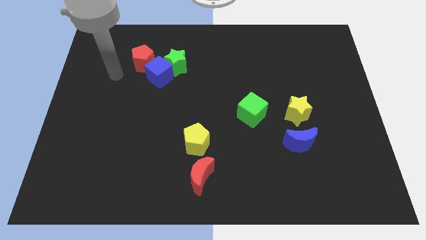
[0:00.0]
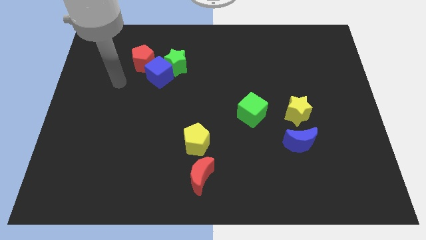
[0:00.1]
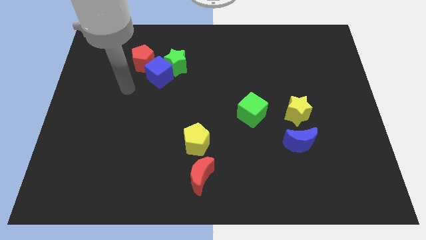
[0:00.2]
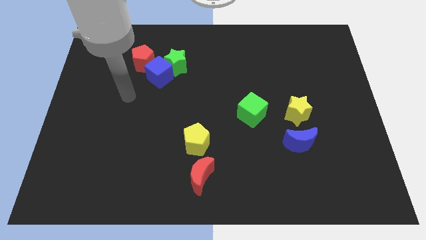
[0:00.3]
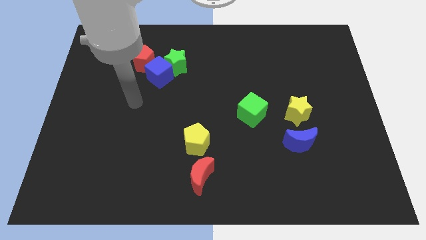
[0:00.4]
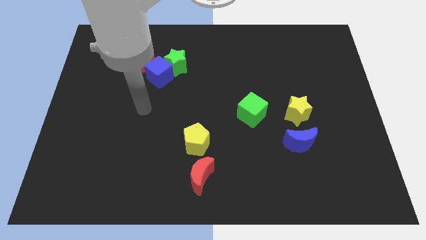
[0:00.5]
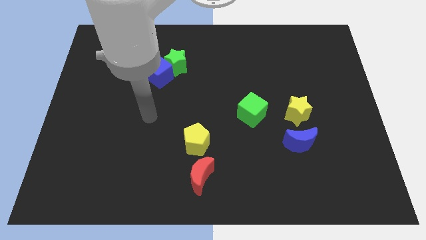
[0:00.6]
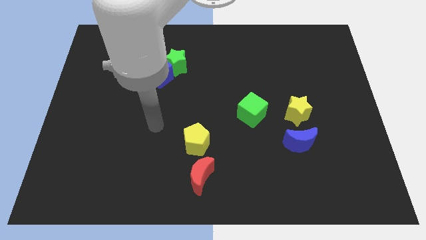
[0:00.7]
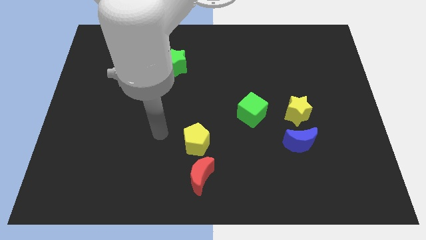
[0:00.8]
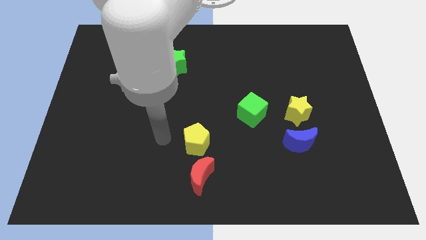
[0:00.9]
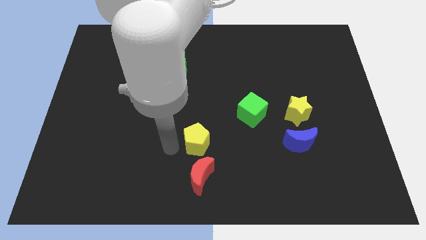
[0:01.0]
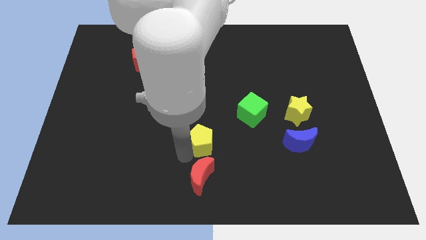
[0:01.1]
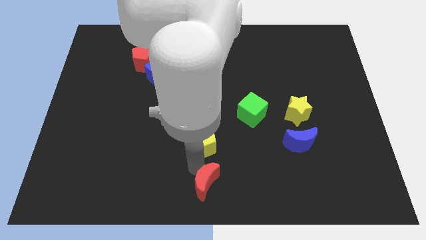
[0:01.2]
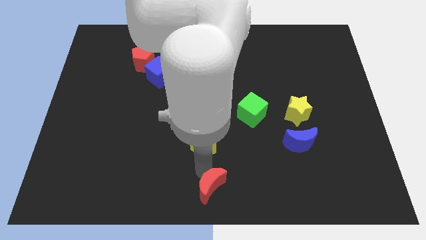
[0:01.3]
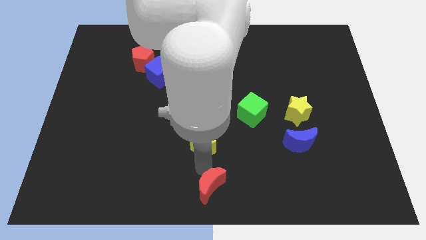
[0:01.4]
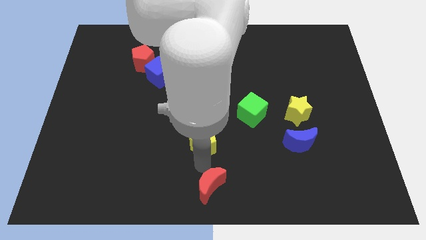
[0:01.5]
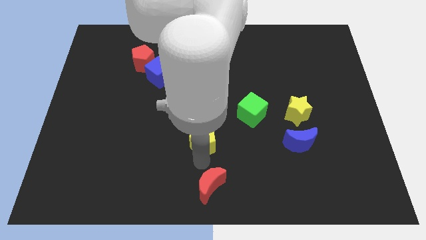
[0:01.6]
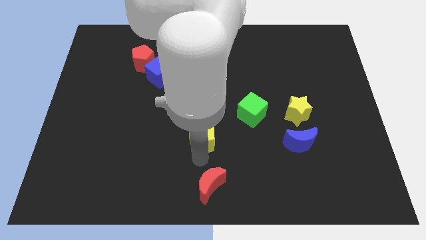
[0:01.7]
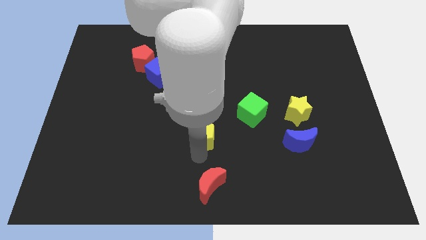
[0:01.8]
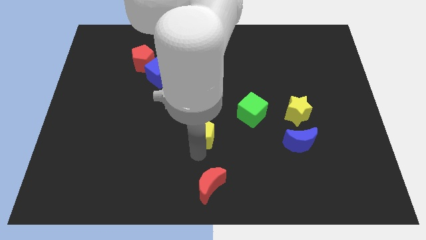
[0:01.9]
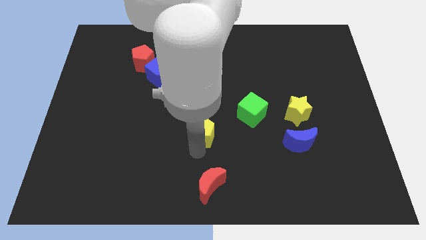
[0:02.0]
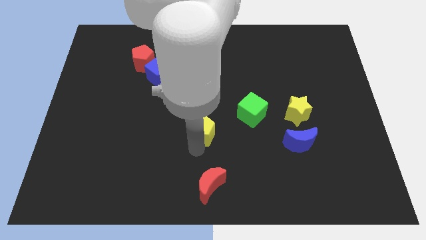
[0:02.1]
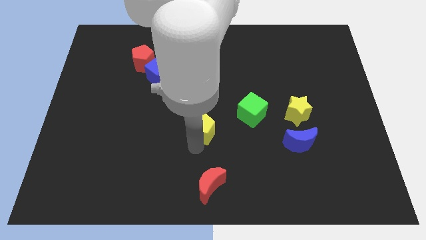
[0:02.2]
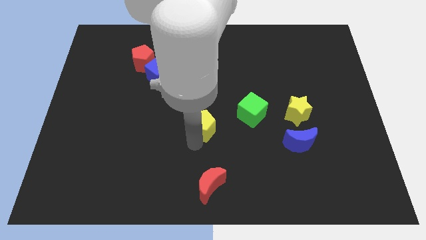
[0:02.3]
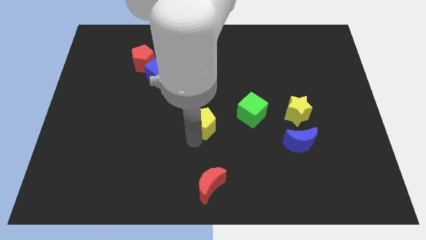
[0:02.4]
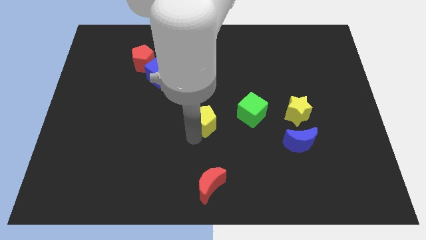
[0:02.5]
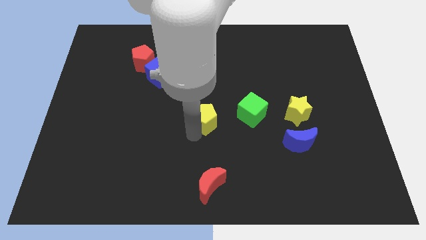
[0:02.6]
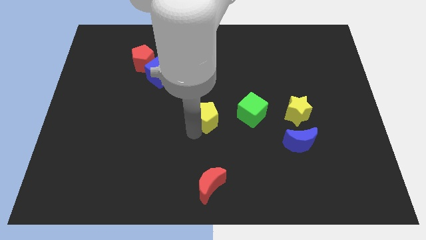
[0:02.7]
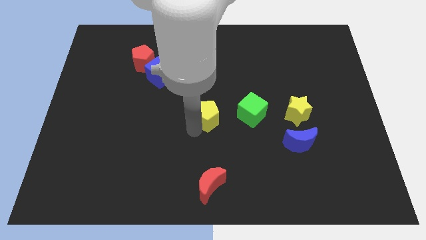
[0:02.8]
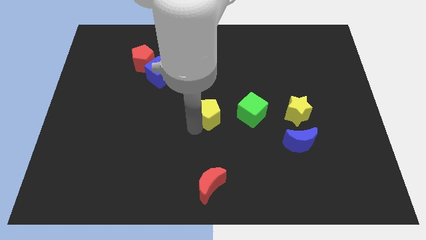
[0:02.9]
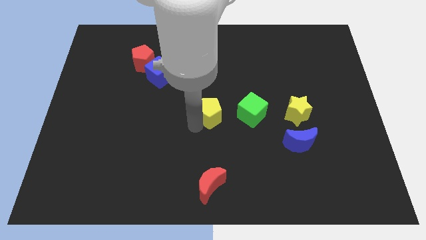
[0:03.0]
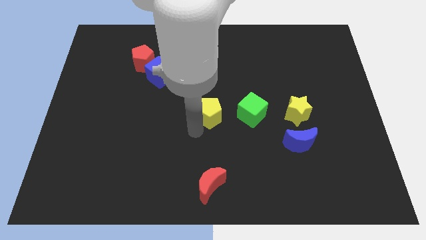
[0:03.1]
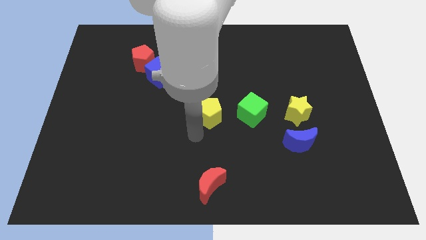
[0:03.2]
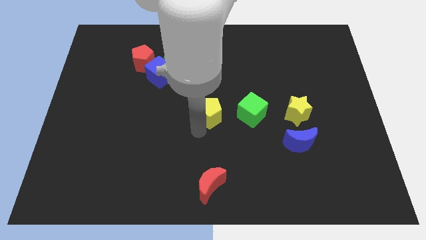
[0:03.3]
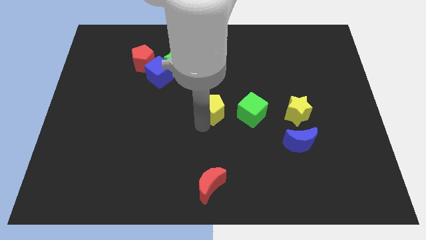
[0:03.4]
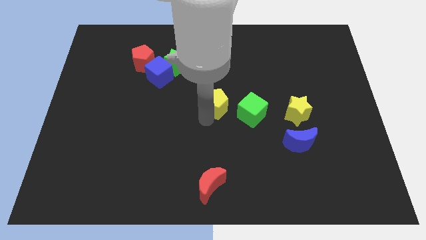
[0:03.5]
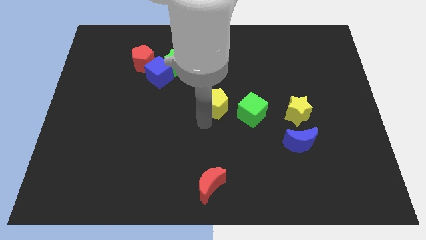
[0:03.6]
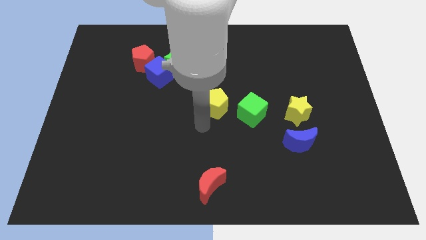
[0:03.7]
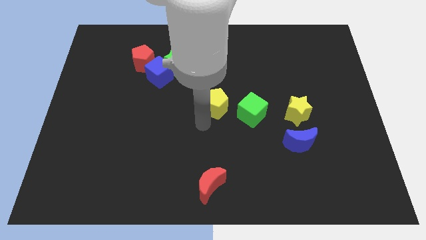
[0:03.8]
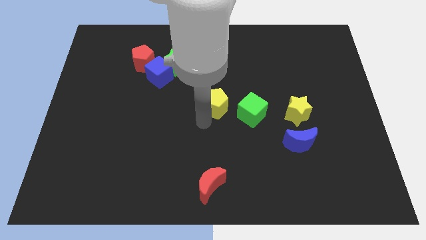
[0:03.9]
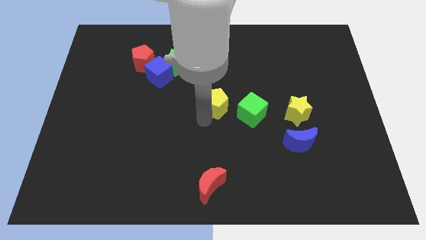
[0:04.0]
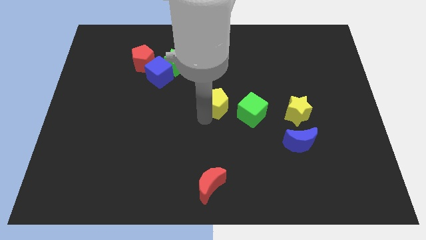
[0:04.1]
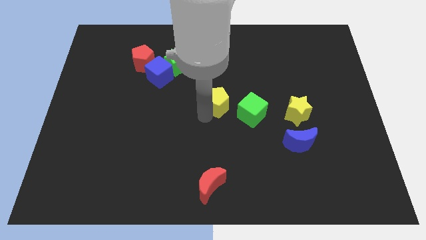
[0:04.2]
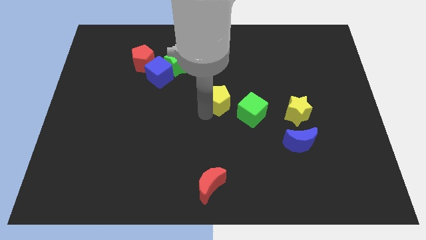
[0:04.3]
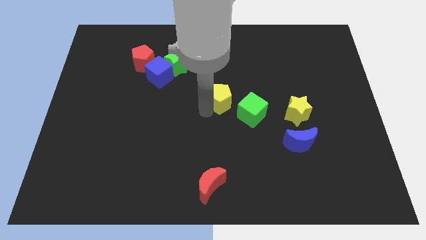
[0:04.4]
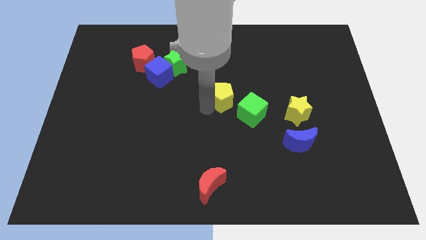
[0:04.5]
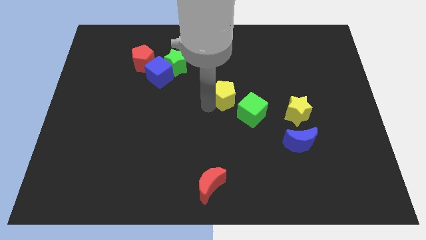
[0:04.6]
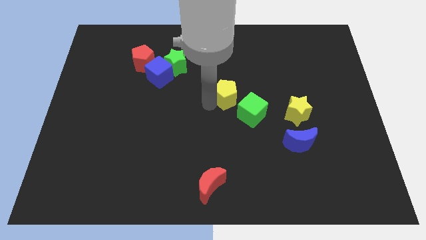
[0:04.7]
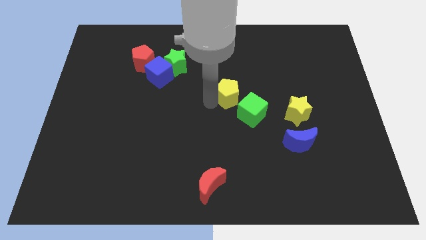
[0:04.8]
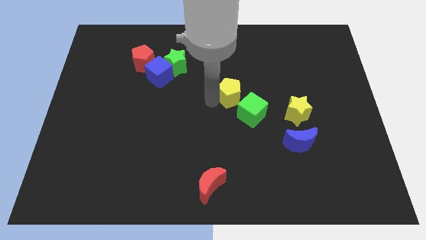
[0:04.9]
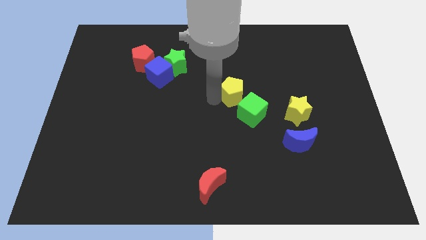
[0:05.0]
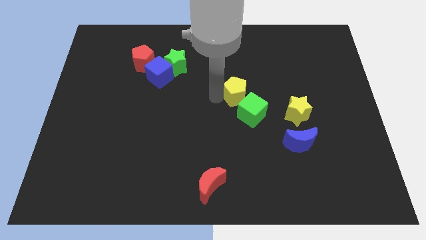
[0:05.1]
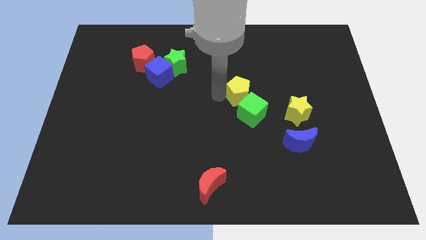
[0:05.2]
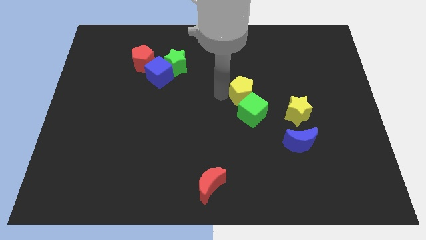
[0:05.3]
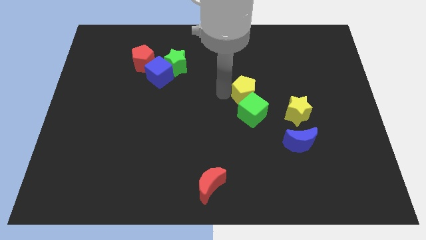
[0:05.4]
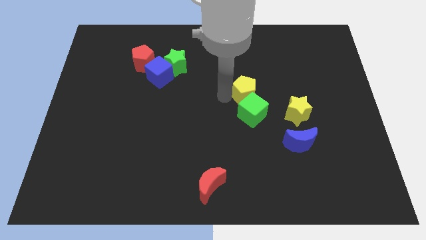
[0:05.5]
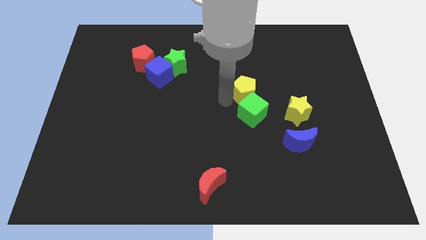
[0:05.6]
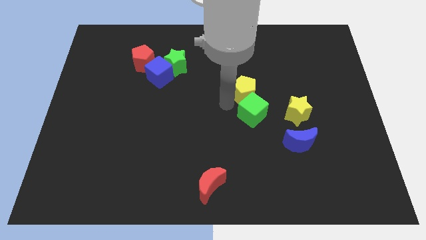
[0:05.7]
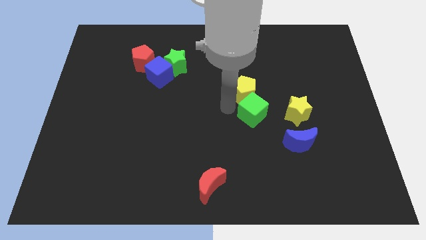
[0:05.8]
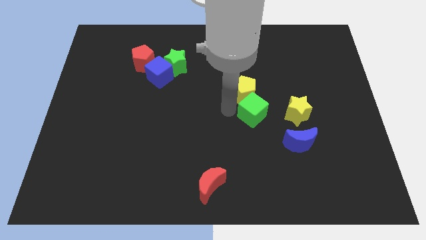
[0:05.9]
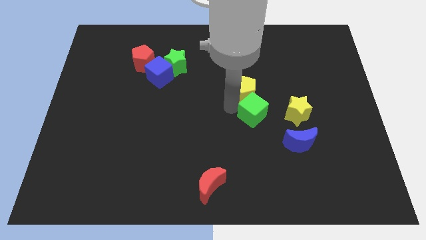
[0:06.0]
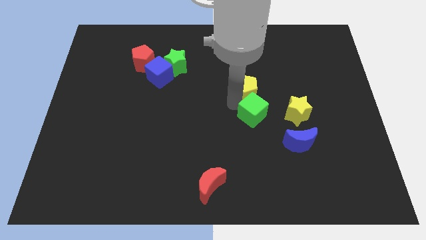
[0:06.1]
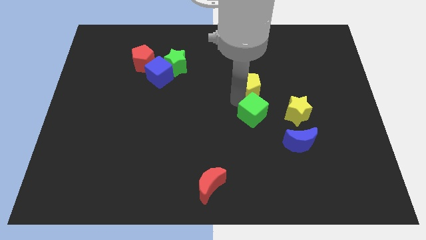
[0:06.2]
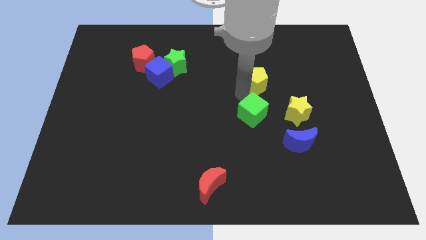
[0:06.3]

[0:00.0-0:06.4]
slide the yellow pentagon upwards and right

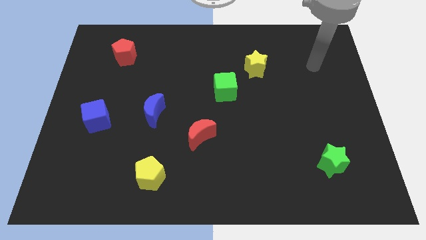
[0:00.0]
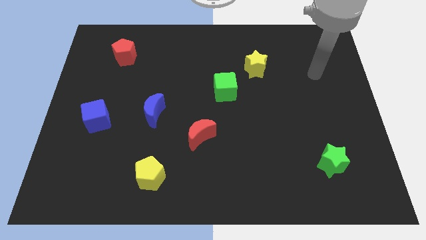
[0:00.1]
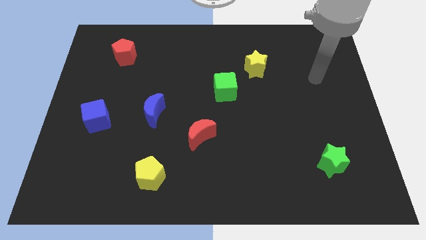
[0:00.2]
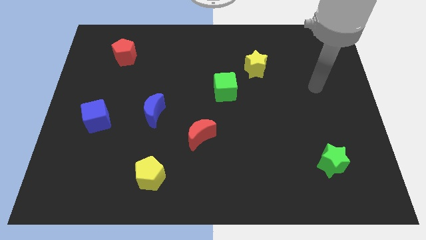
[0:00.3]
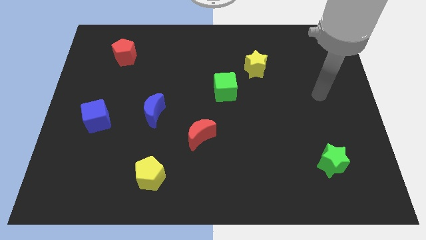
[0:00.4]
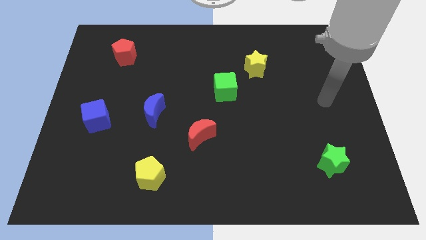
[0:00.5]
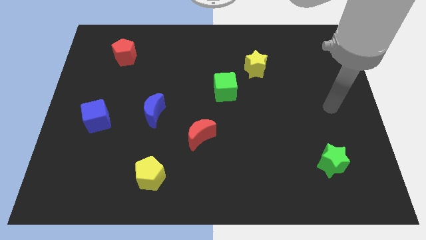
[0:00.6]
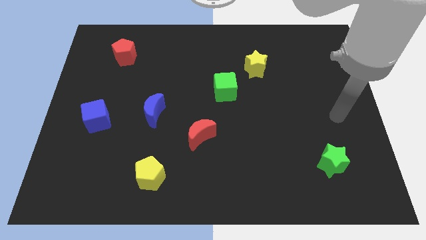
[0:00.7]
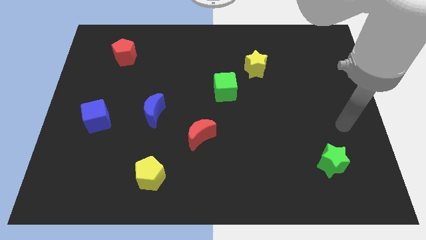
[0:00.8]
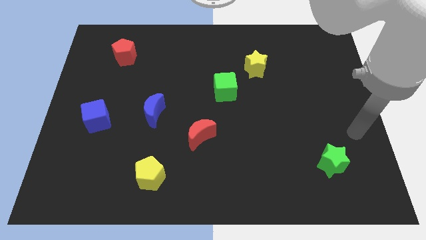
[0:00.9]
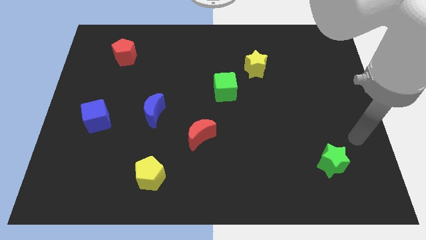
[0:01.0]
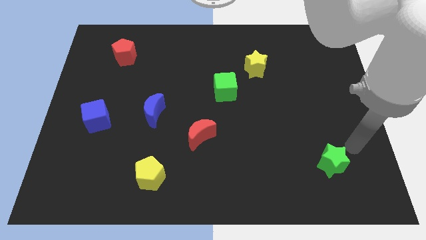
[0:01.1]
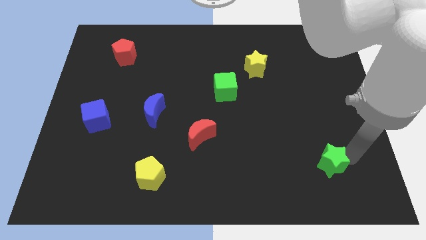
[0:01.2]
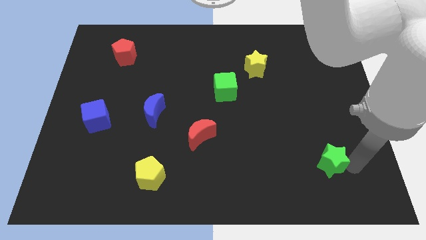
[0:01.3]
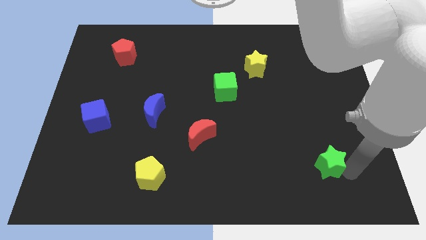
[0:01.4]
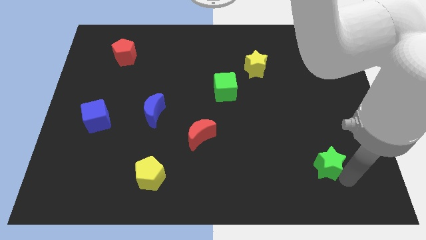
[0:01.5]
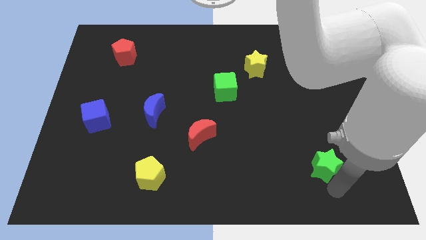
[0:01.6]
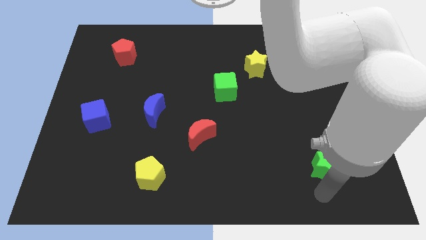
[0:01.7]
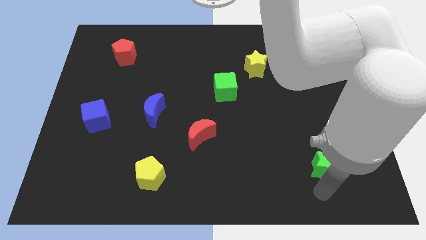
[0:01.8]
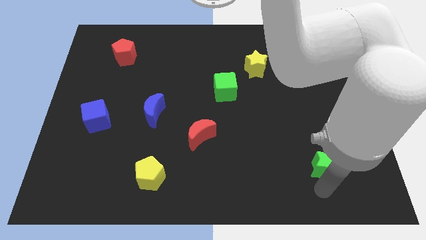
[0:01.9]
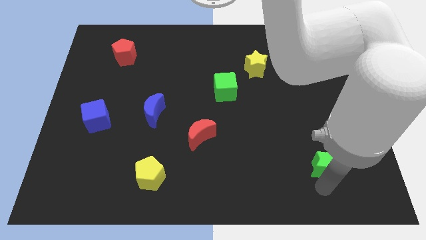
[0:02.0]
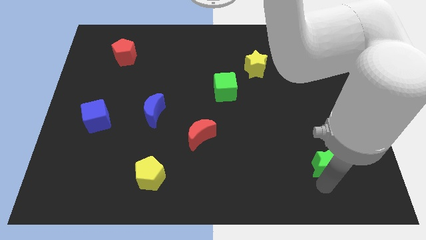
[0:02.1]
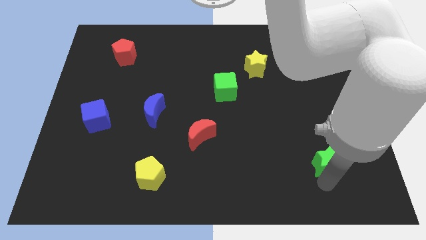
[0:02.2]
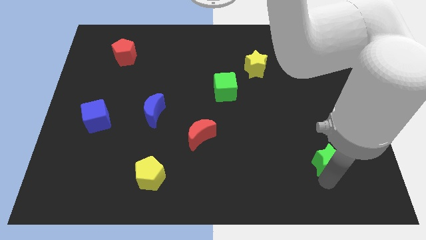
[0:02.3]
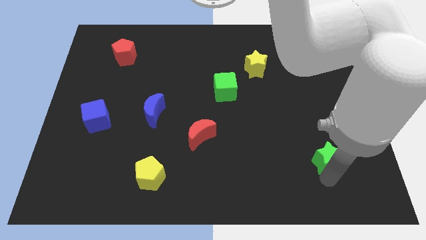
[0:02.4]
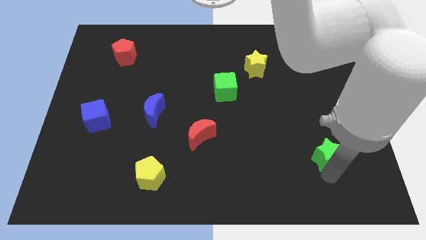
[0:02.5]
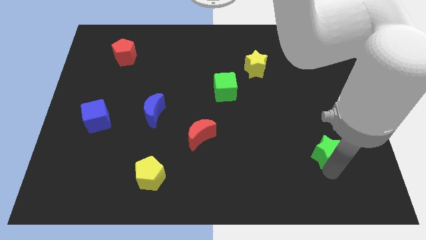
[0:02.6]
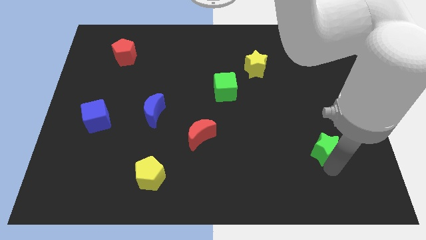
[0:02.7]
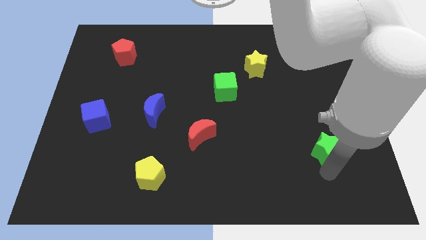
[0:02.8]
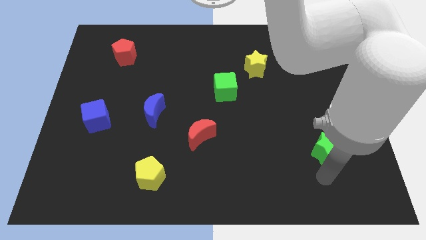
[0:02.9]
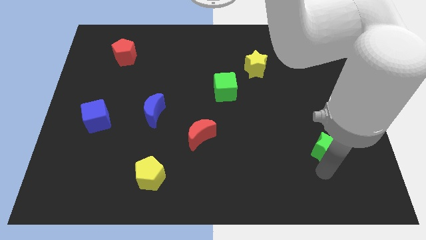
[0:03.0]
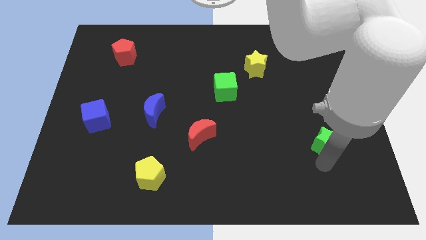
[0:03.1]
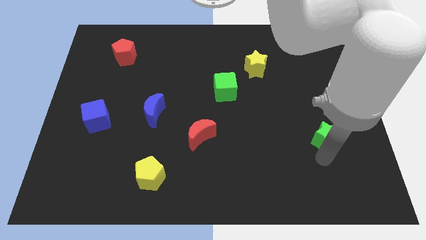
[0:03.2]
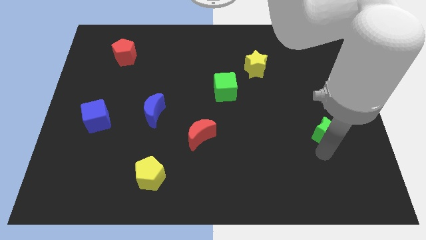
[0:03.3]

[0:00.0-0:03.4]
move the green star slightly upwards
